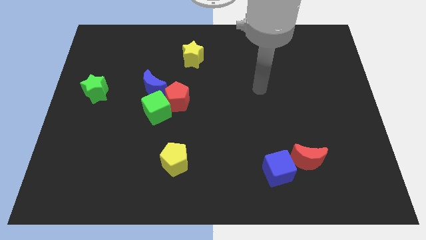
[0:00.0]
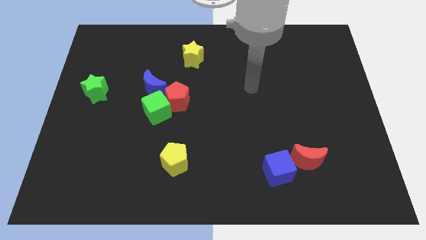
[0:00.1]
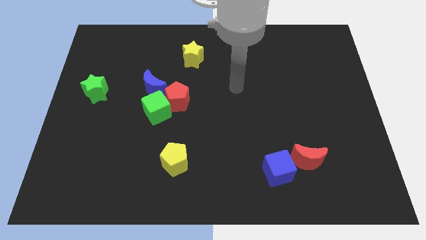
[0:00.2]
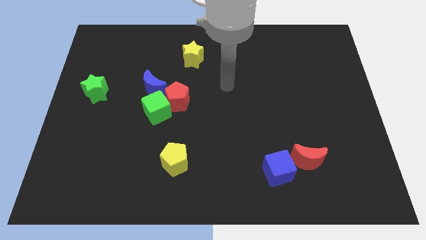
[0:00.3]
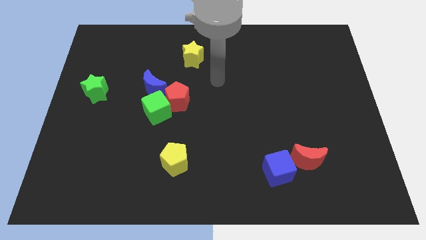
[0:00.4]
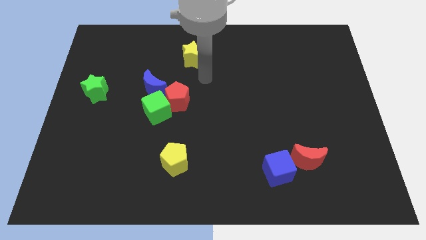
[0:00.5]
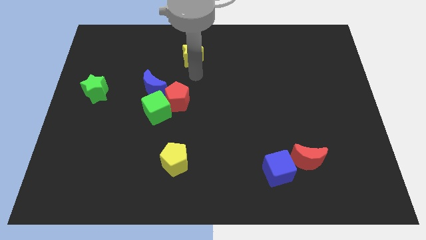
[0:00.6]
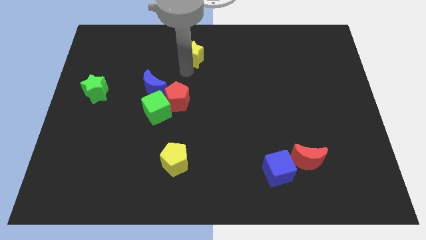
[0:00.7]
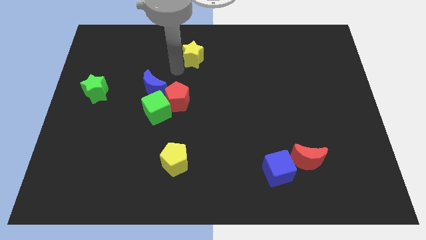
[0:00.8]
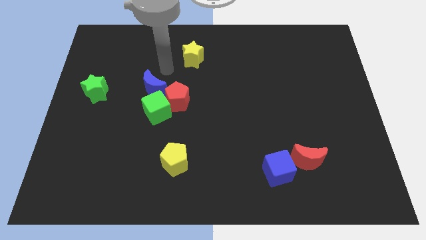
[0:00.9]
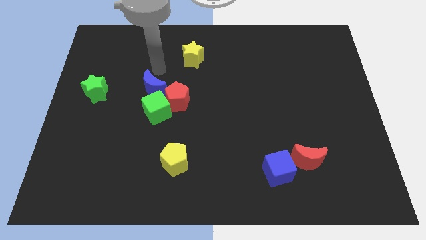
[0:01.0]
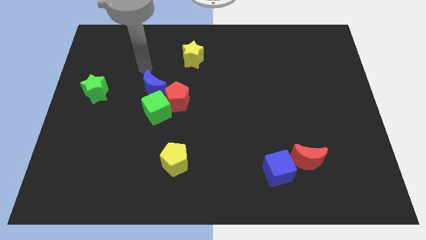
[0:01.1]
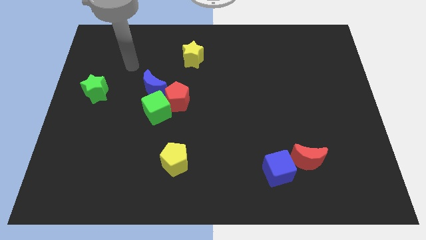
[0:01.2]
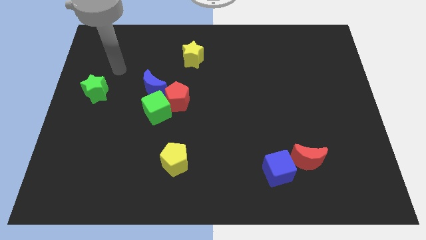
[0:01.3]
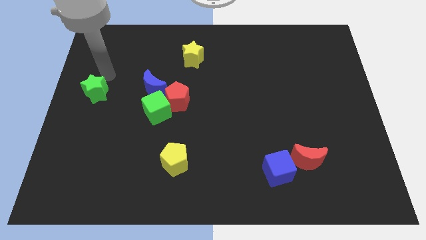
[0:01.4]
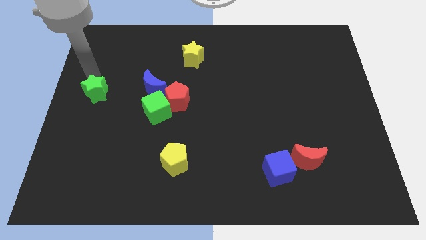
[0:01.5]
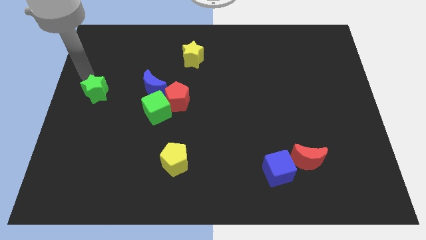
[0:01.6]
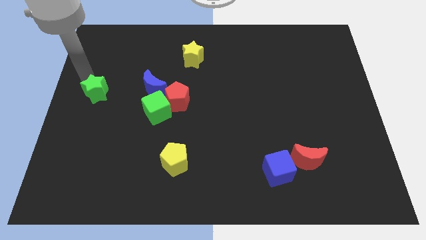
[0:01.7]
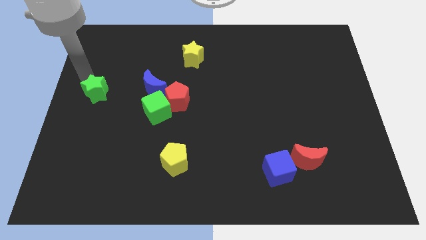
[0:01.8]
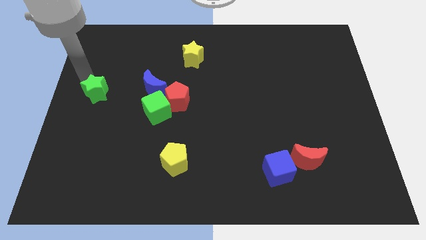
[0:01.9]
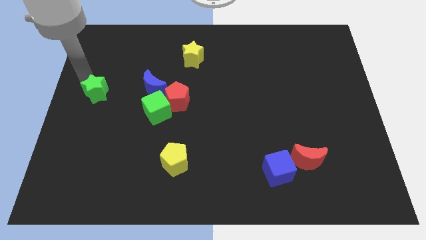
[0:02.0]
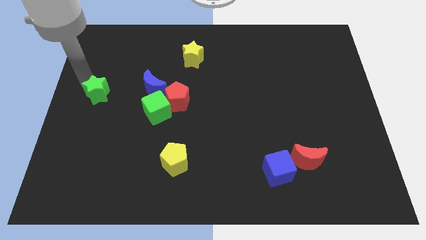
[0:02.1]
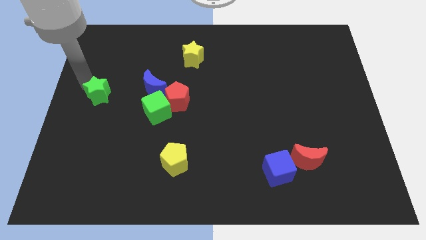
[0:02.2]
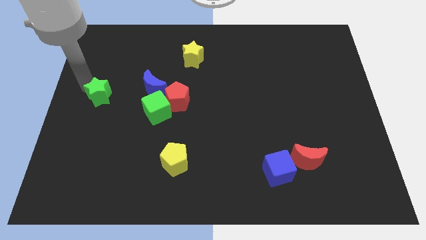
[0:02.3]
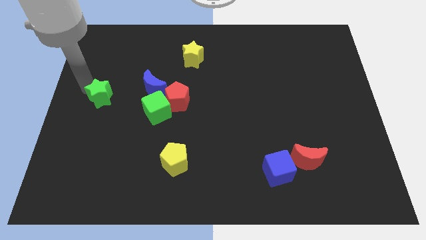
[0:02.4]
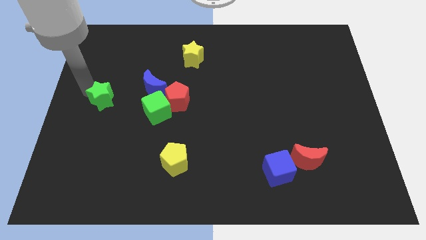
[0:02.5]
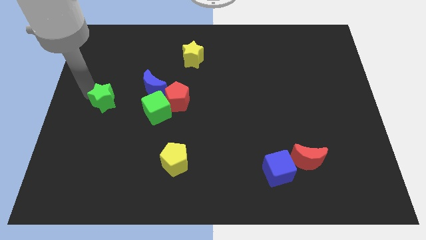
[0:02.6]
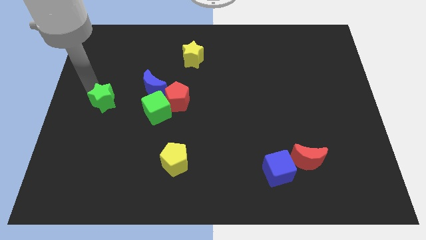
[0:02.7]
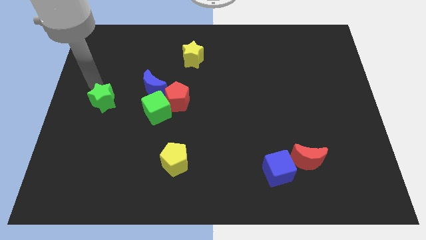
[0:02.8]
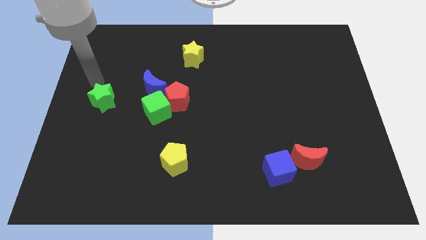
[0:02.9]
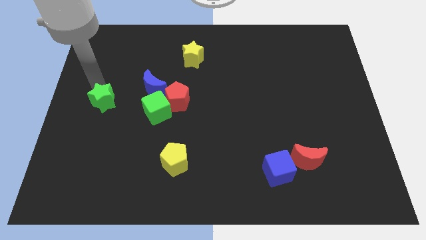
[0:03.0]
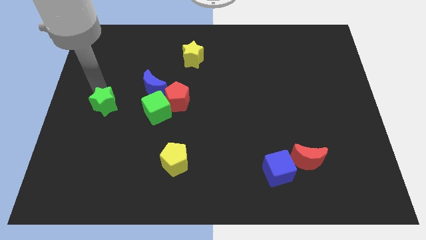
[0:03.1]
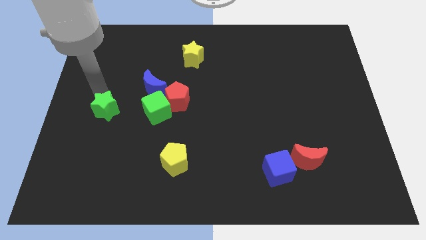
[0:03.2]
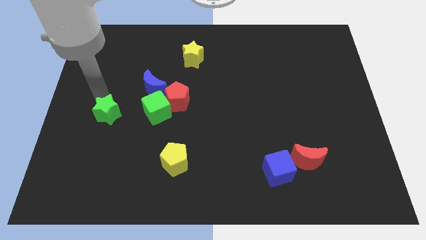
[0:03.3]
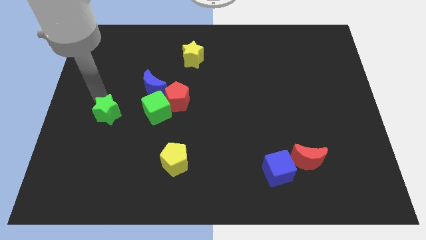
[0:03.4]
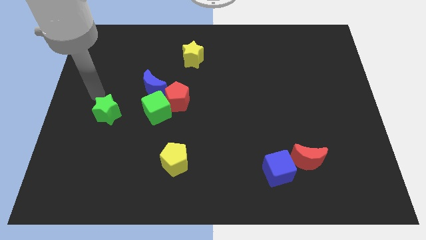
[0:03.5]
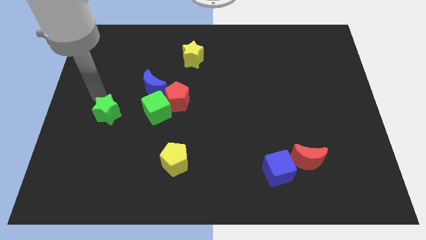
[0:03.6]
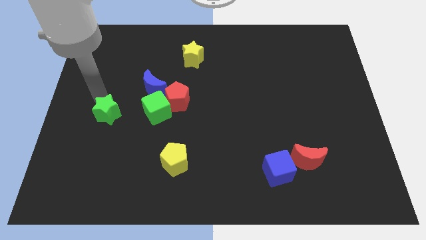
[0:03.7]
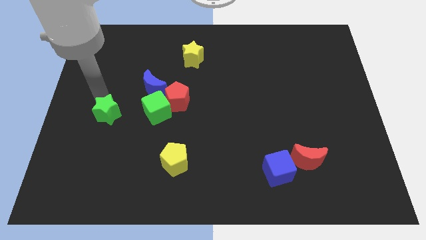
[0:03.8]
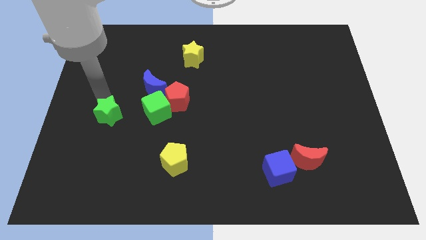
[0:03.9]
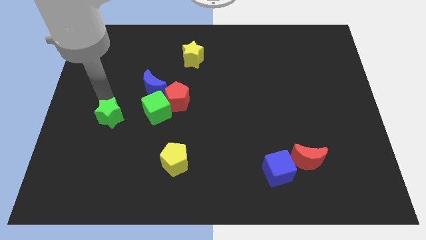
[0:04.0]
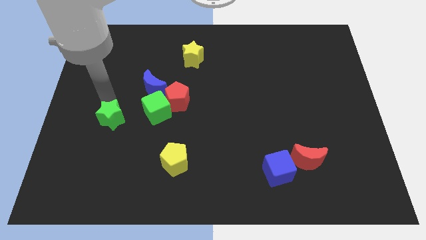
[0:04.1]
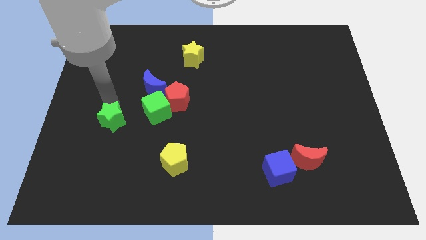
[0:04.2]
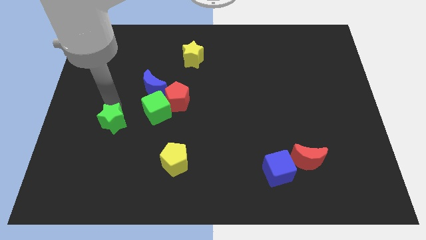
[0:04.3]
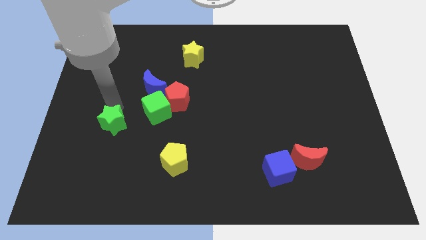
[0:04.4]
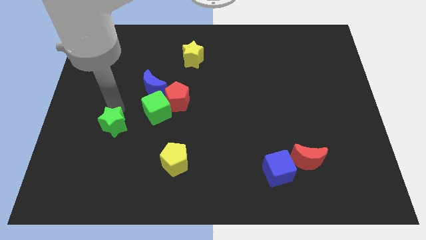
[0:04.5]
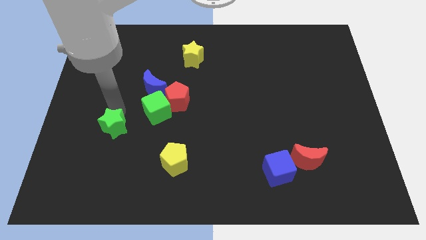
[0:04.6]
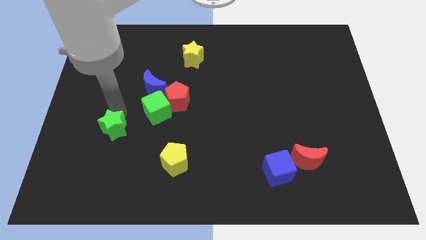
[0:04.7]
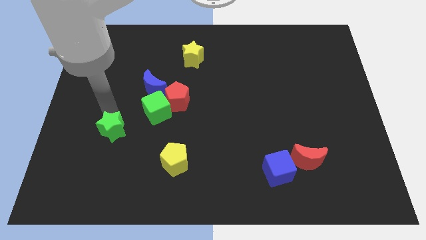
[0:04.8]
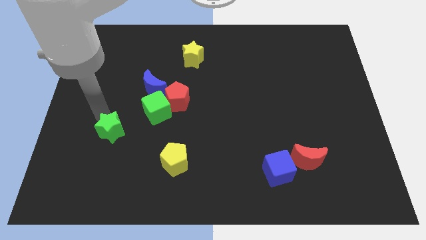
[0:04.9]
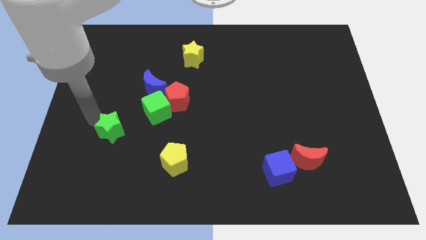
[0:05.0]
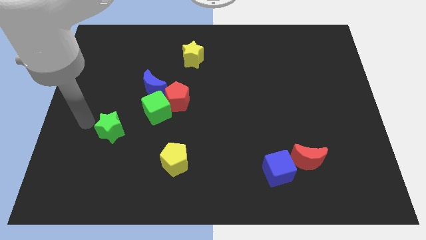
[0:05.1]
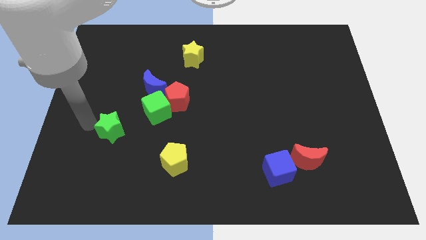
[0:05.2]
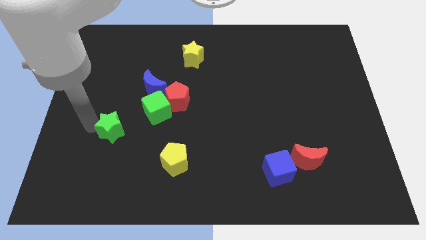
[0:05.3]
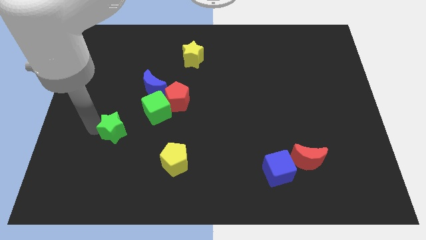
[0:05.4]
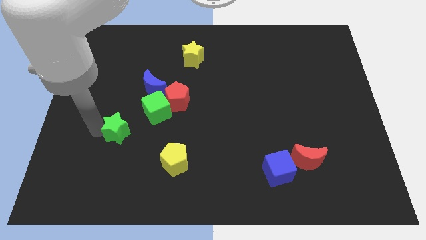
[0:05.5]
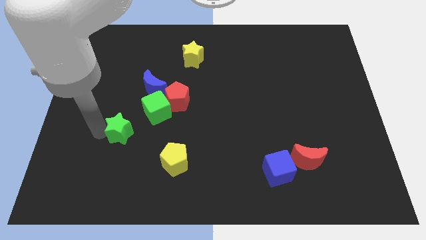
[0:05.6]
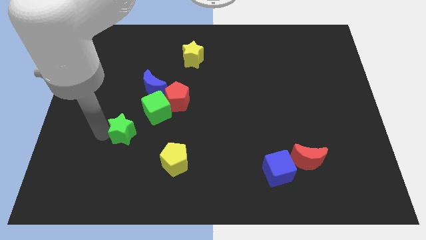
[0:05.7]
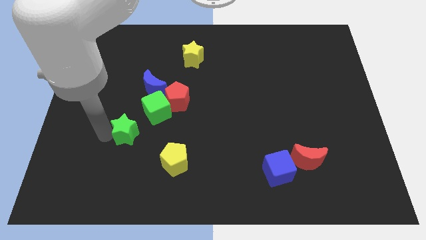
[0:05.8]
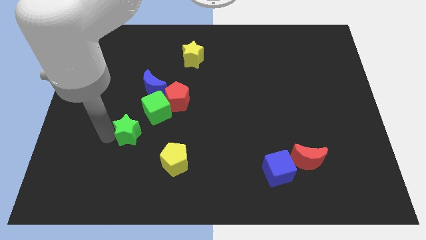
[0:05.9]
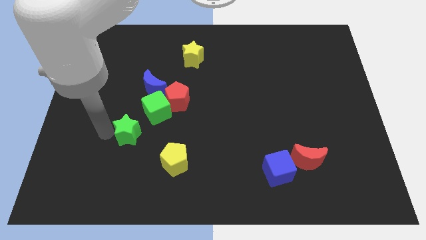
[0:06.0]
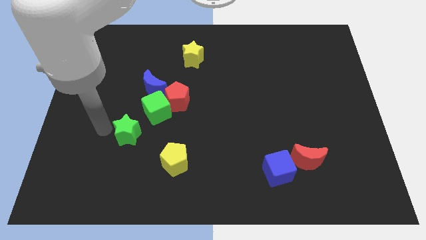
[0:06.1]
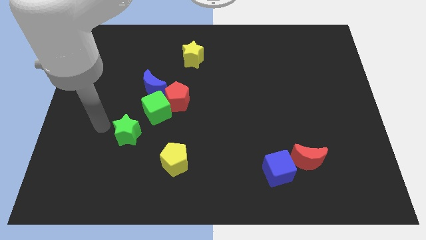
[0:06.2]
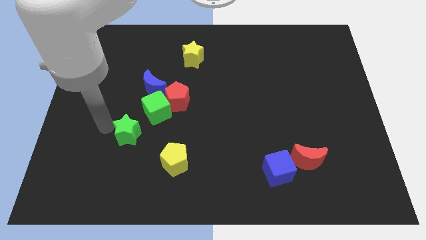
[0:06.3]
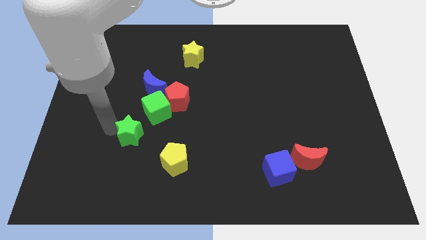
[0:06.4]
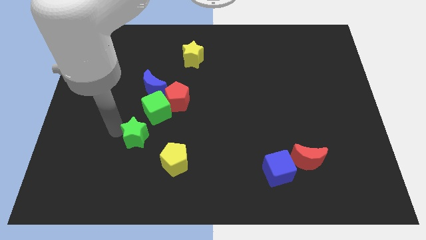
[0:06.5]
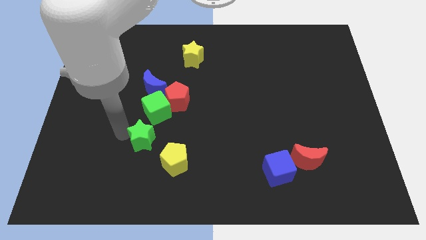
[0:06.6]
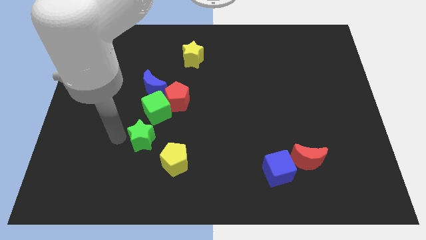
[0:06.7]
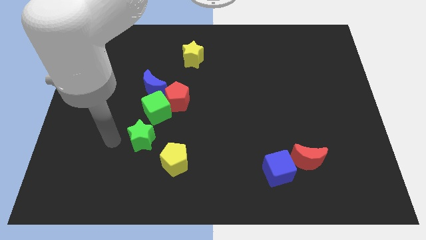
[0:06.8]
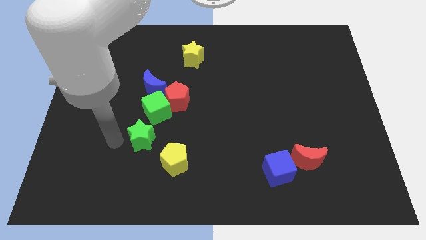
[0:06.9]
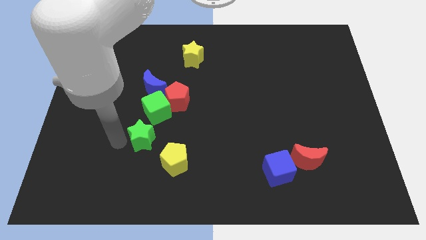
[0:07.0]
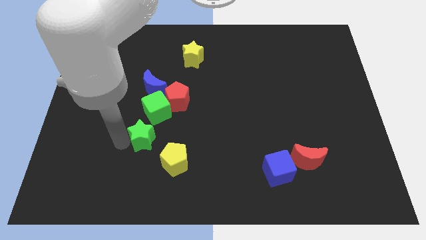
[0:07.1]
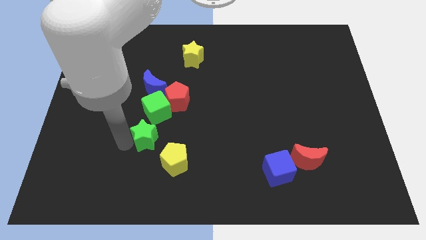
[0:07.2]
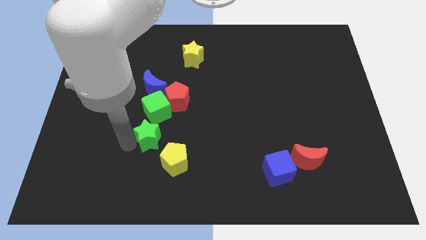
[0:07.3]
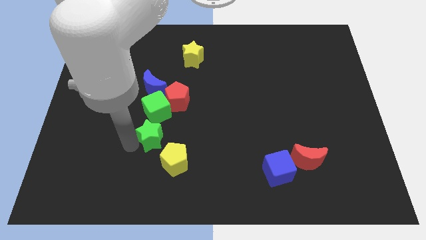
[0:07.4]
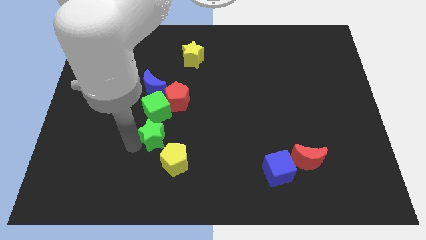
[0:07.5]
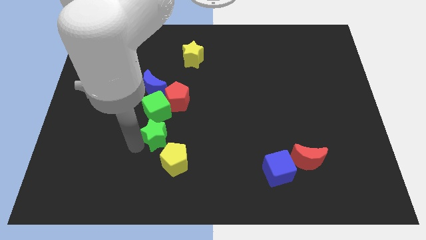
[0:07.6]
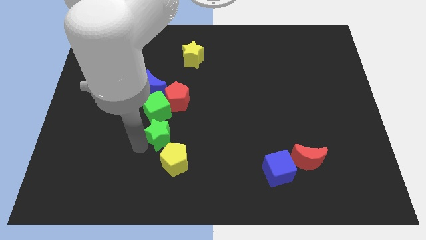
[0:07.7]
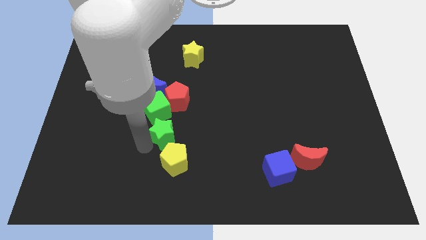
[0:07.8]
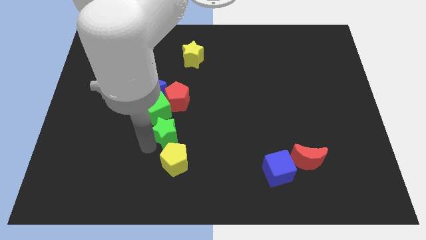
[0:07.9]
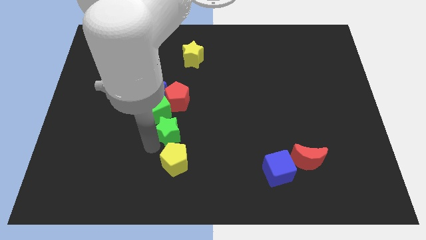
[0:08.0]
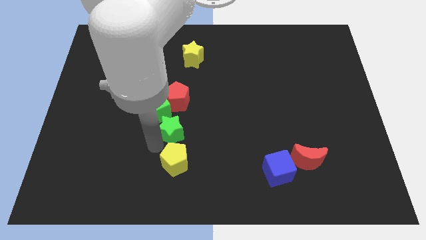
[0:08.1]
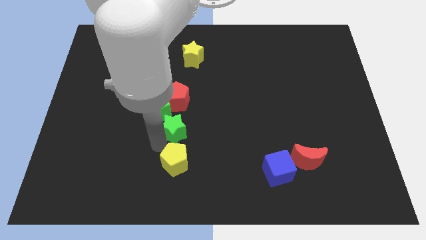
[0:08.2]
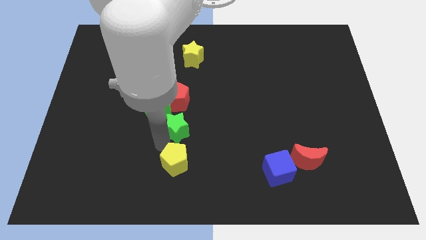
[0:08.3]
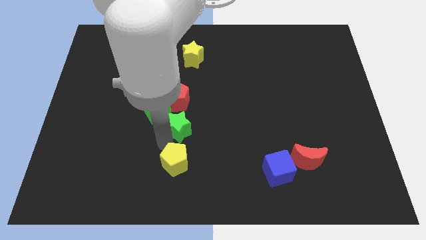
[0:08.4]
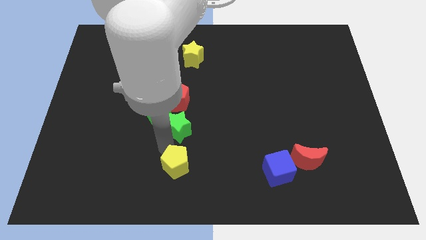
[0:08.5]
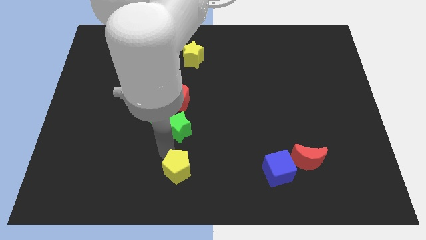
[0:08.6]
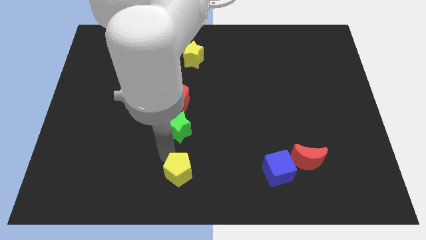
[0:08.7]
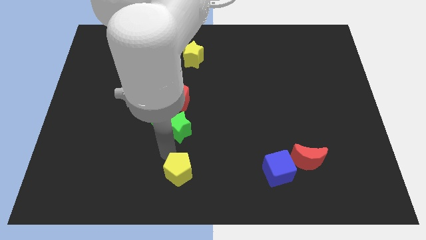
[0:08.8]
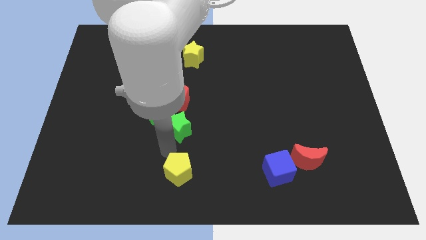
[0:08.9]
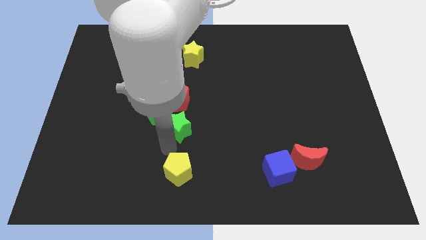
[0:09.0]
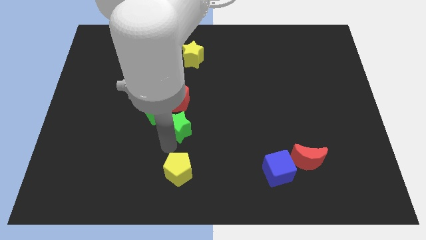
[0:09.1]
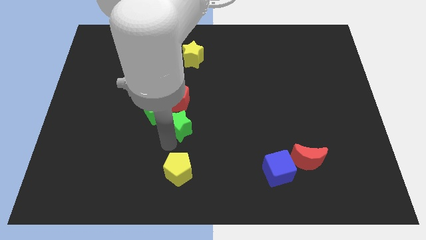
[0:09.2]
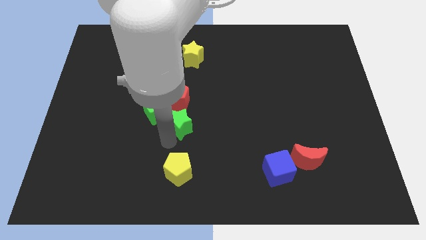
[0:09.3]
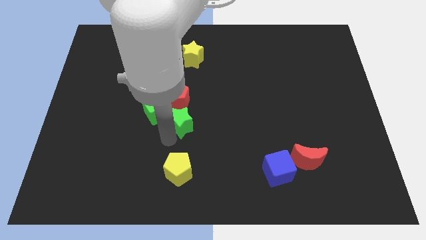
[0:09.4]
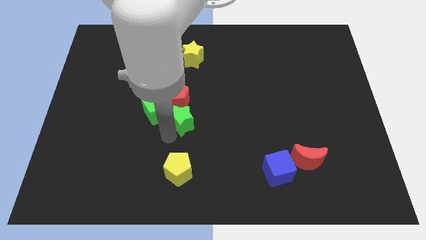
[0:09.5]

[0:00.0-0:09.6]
slide the green star diagonally down and to the right of the blue moon
